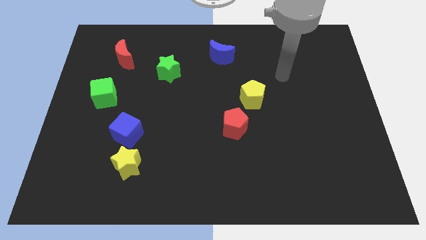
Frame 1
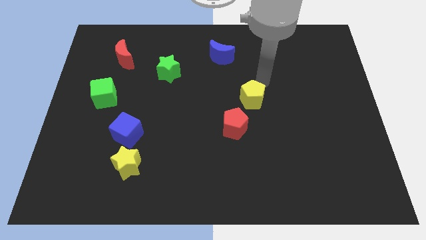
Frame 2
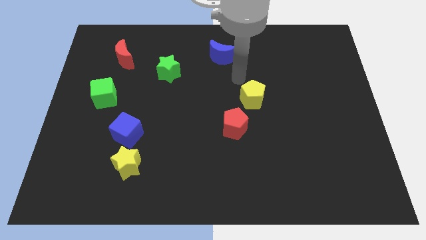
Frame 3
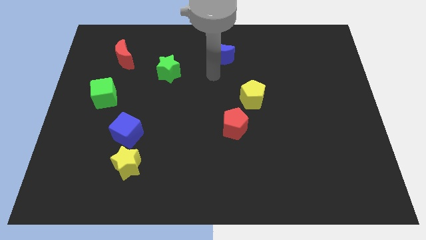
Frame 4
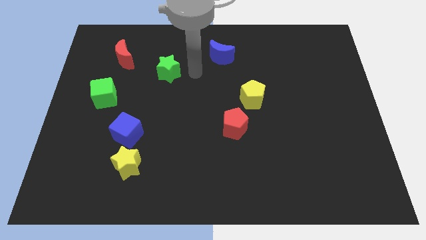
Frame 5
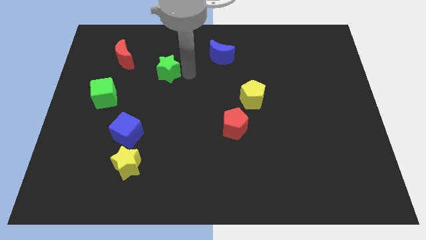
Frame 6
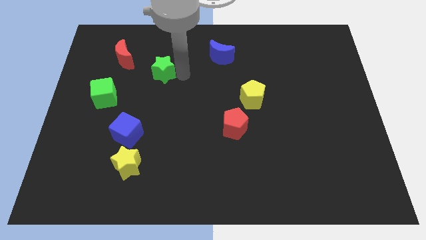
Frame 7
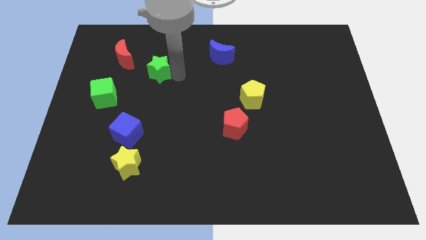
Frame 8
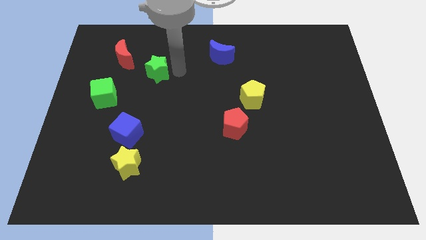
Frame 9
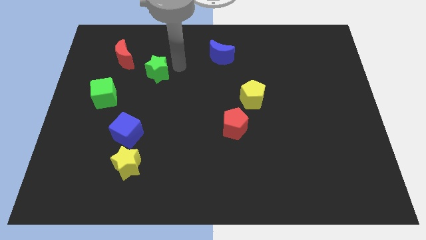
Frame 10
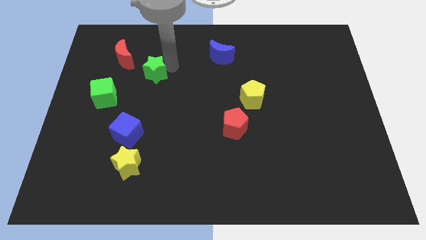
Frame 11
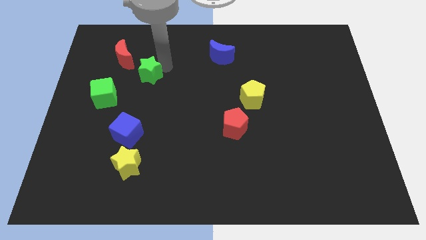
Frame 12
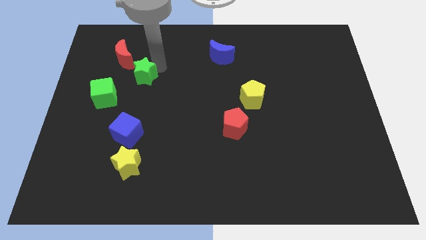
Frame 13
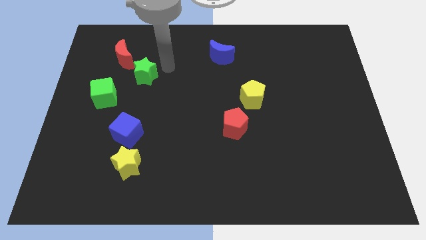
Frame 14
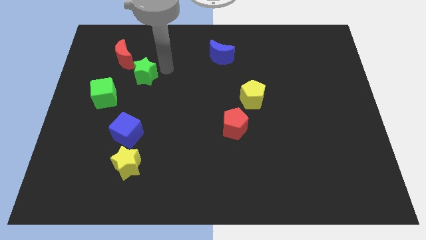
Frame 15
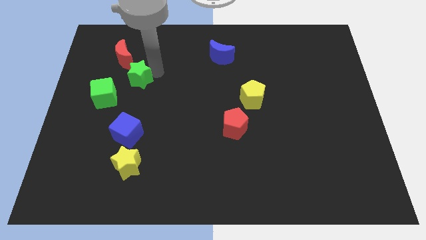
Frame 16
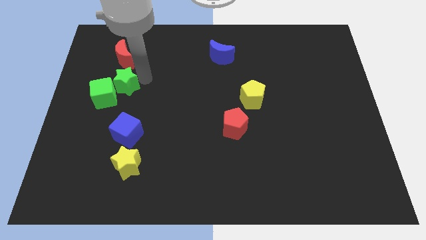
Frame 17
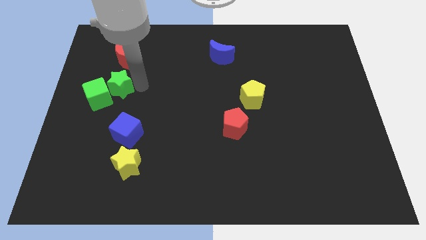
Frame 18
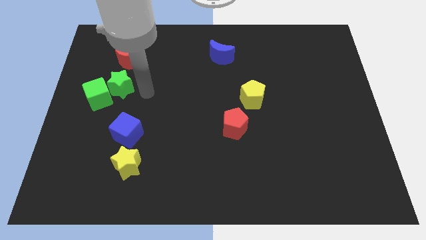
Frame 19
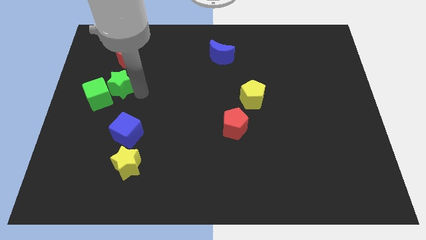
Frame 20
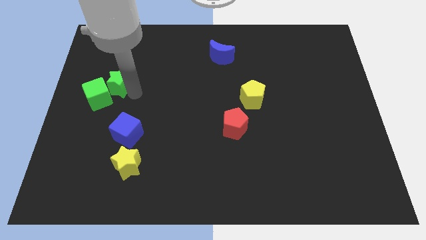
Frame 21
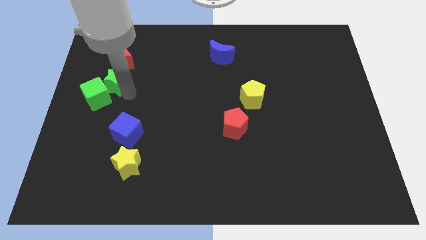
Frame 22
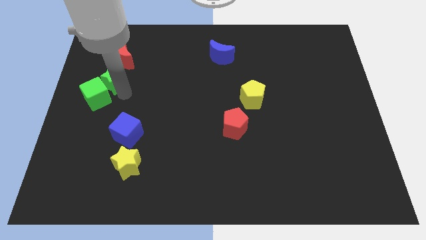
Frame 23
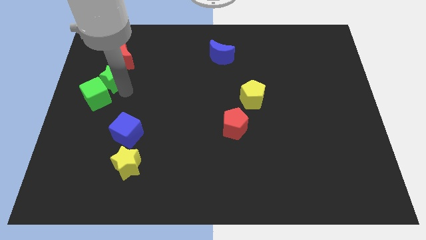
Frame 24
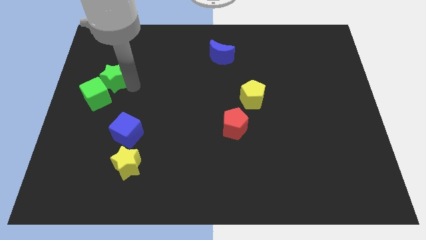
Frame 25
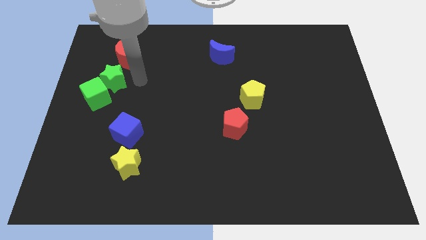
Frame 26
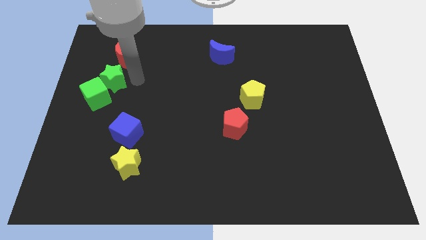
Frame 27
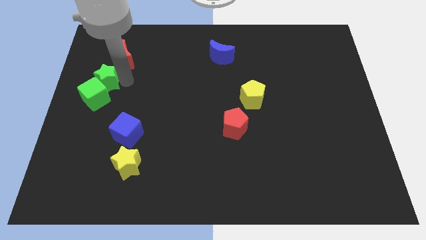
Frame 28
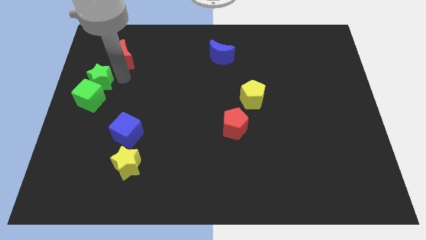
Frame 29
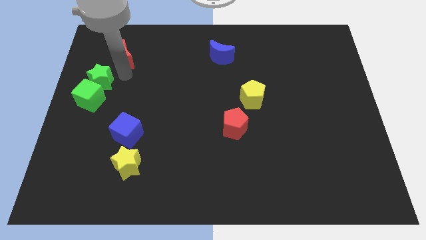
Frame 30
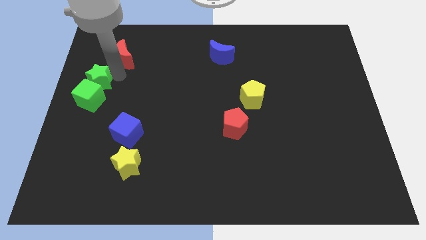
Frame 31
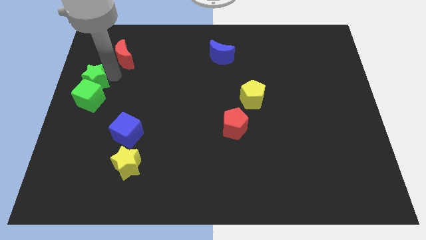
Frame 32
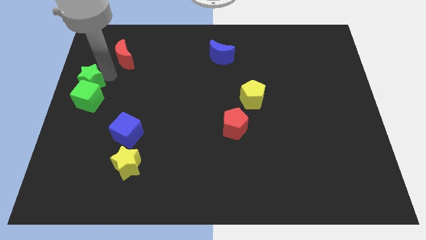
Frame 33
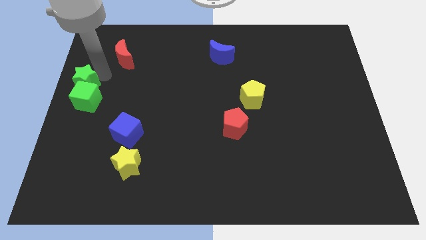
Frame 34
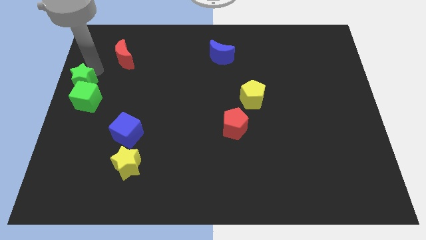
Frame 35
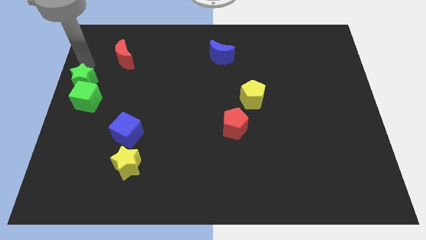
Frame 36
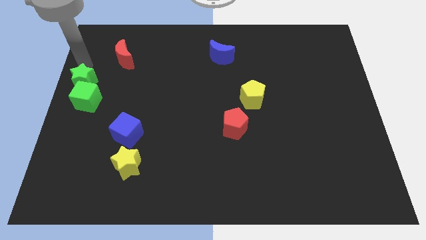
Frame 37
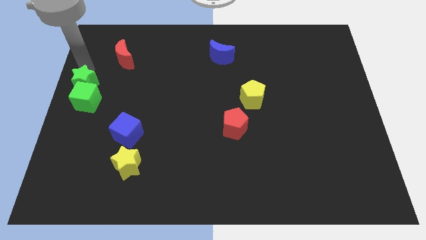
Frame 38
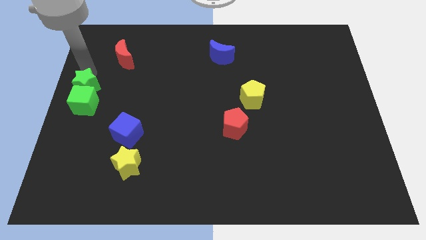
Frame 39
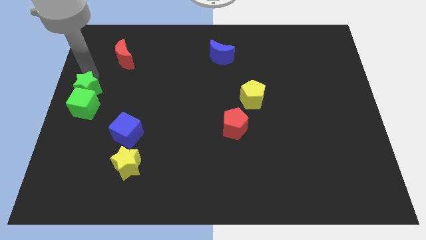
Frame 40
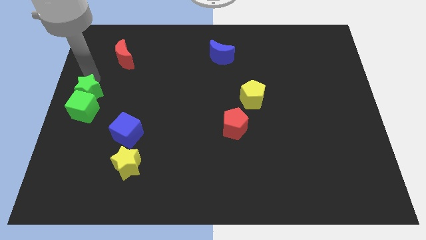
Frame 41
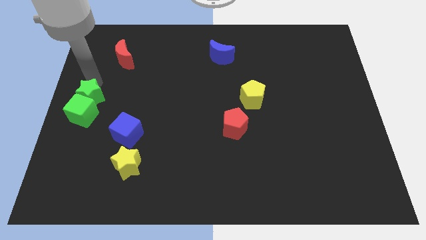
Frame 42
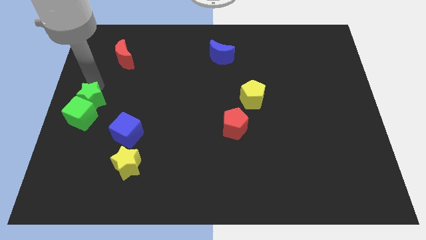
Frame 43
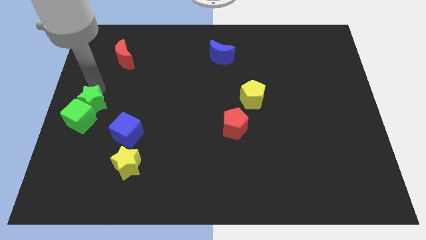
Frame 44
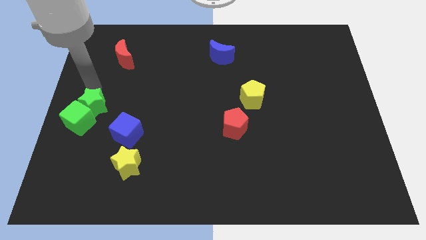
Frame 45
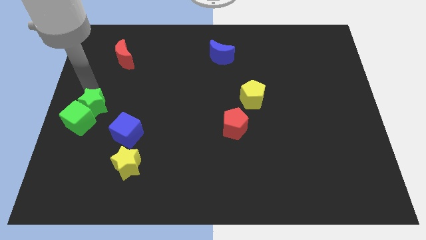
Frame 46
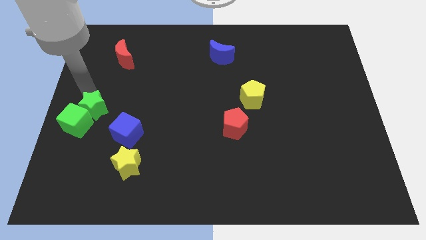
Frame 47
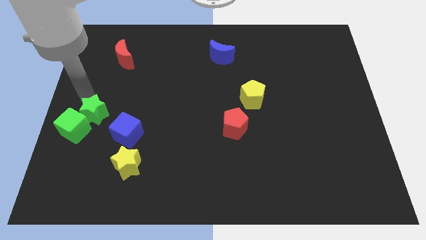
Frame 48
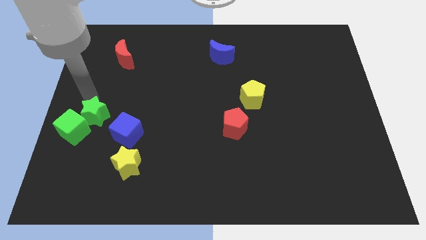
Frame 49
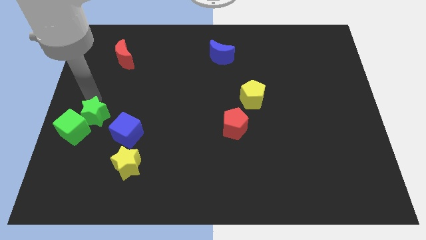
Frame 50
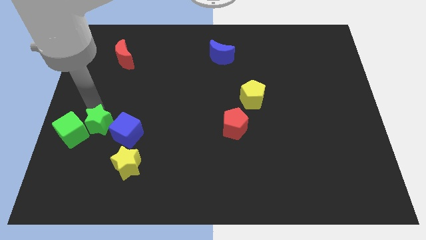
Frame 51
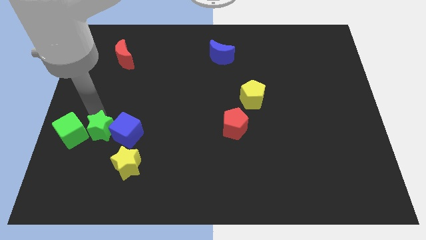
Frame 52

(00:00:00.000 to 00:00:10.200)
move the green star to the top left side of the yellow star

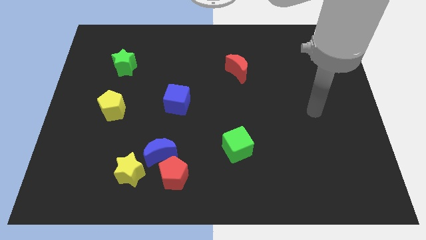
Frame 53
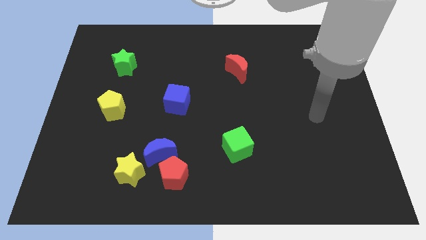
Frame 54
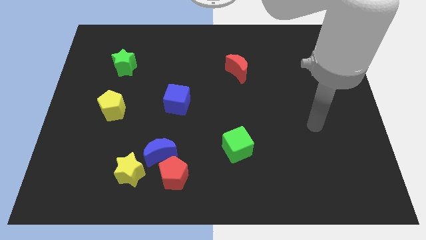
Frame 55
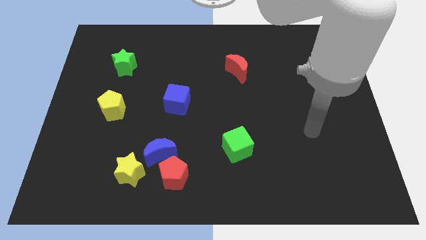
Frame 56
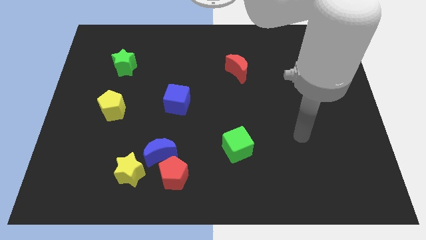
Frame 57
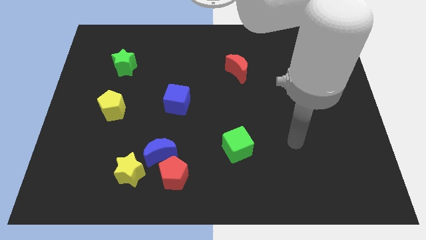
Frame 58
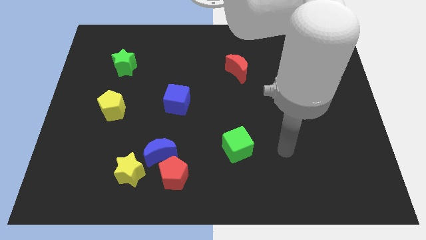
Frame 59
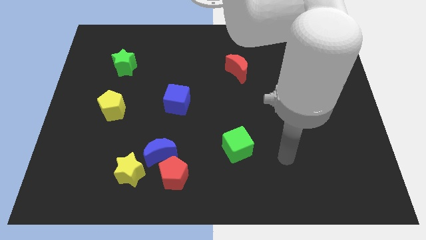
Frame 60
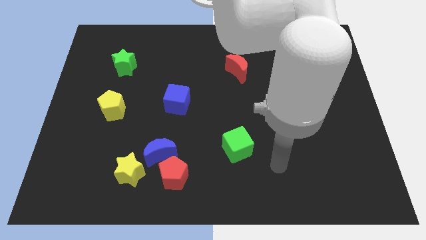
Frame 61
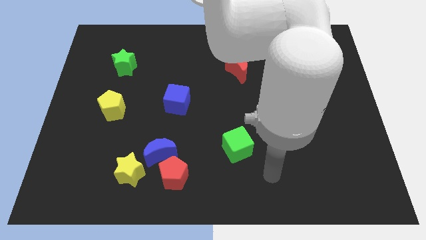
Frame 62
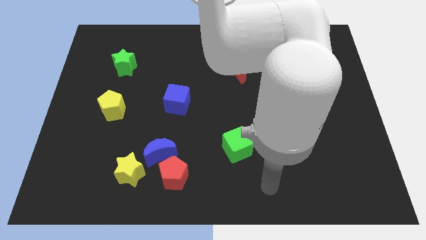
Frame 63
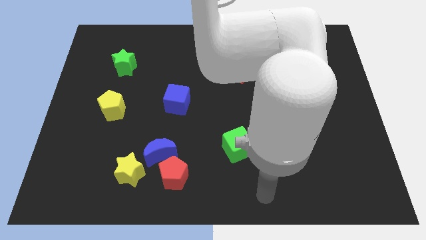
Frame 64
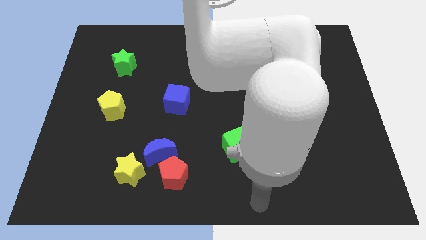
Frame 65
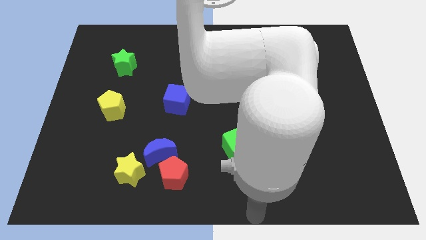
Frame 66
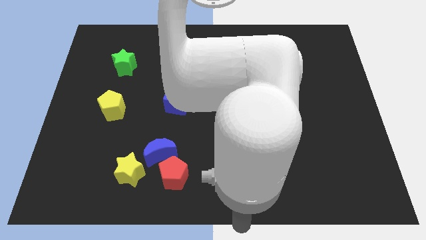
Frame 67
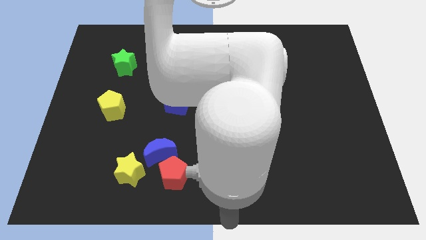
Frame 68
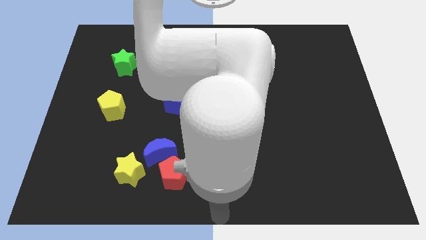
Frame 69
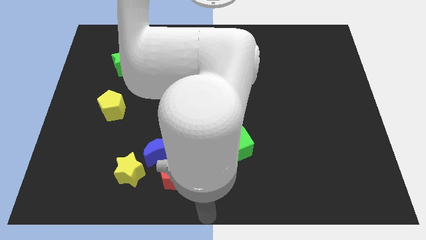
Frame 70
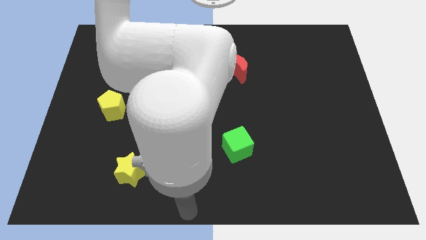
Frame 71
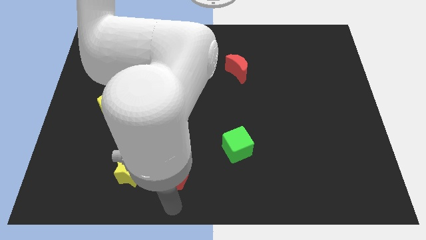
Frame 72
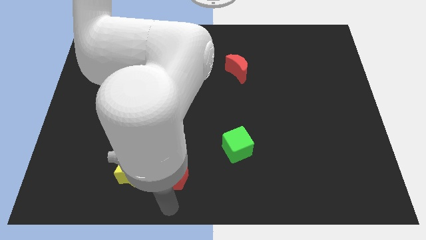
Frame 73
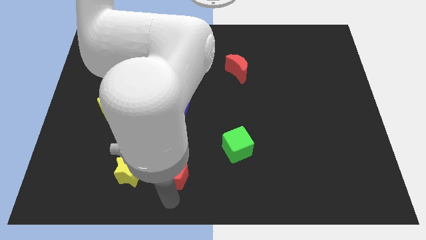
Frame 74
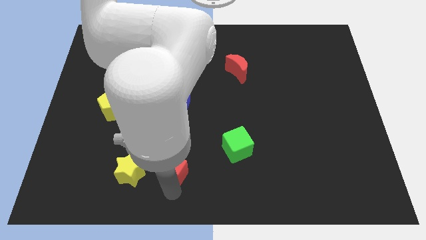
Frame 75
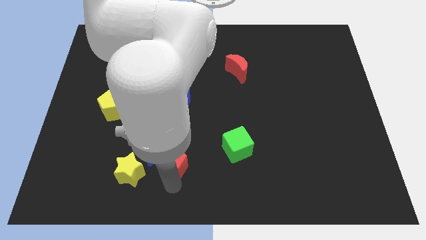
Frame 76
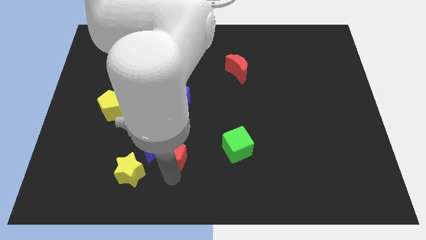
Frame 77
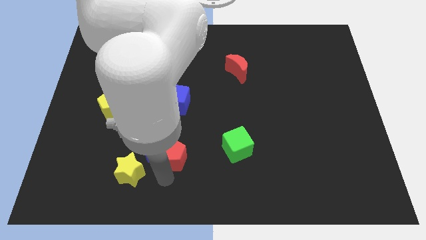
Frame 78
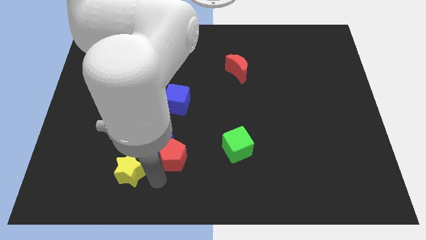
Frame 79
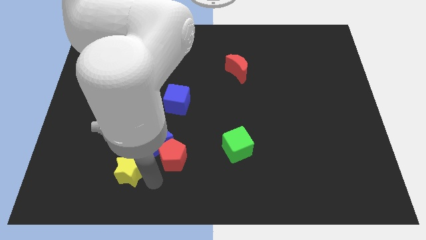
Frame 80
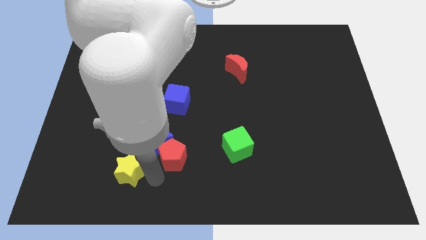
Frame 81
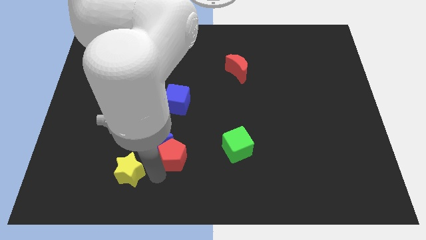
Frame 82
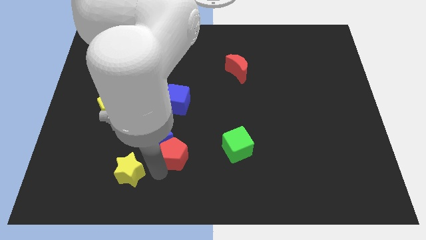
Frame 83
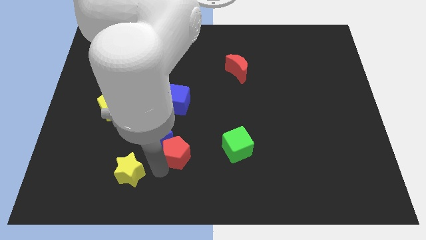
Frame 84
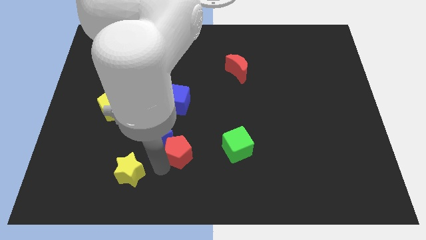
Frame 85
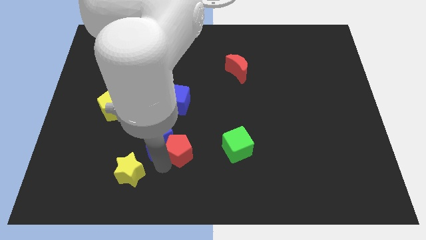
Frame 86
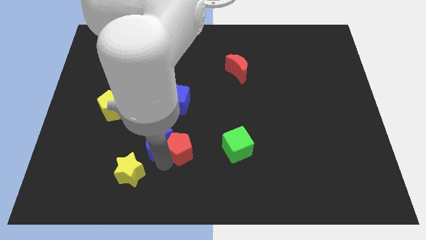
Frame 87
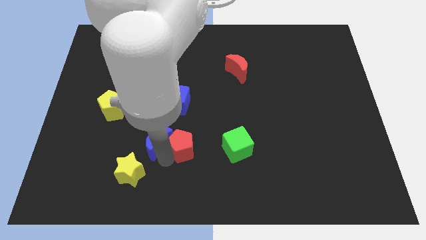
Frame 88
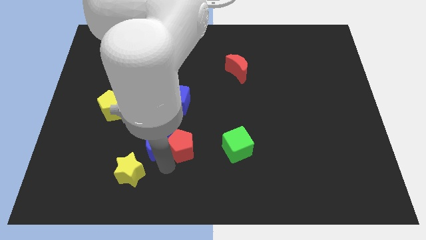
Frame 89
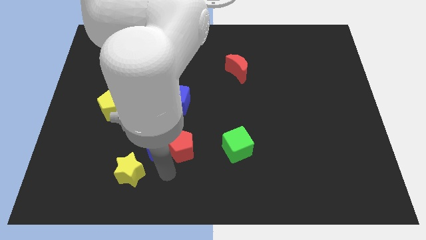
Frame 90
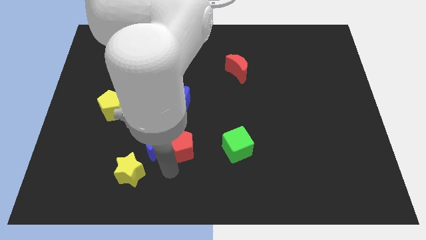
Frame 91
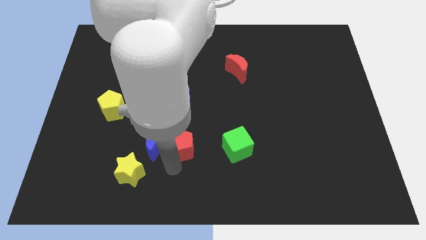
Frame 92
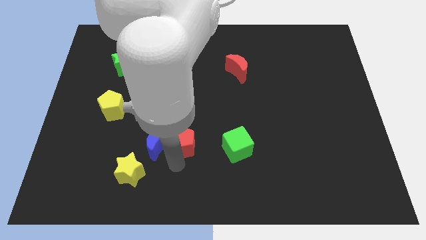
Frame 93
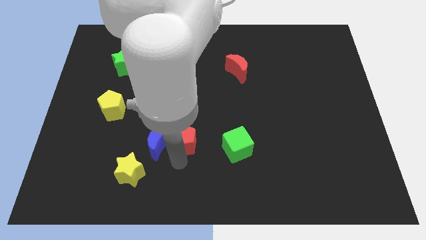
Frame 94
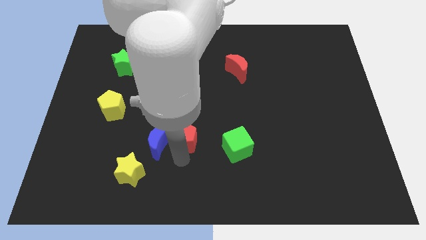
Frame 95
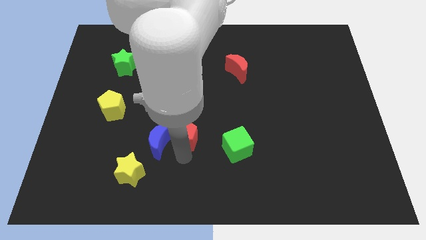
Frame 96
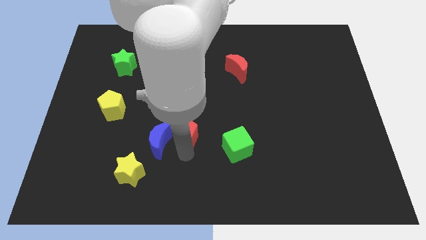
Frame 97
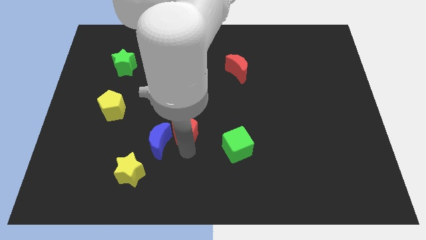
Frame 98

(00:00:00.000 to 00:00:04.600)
move the red pentagon to the bottom right side of the blue cube
